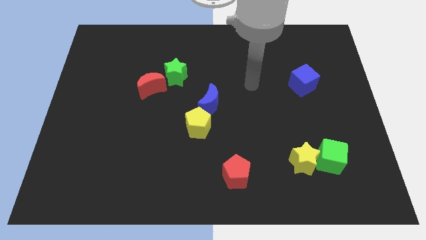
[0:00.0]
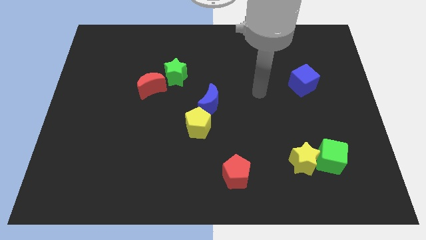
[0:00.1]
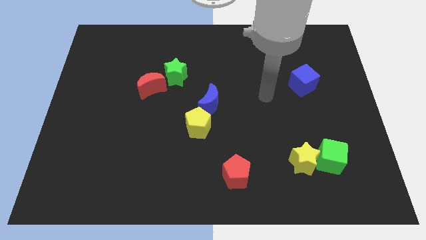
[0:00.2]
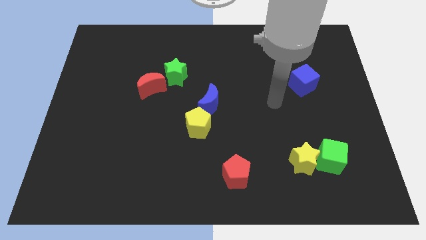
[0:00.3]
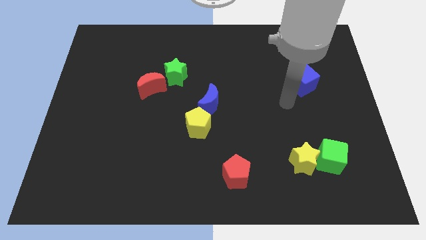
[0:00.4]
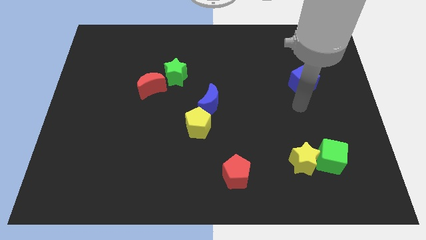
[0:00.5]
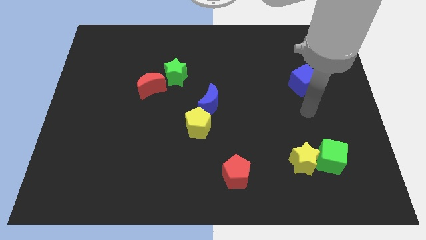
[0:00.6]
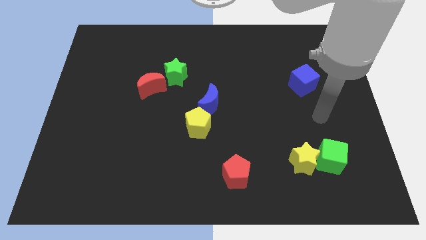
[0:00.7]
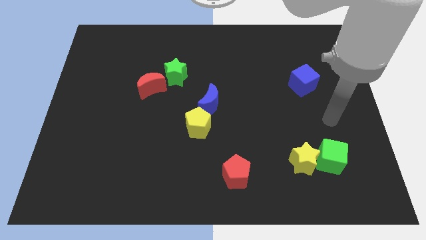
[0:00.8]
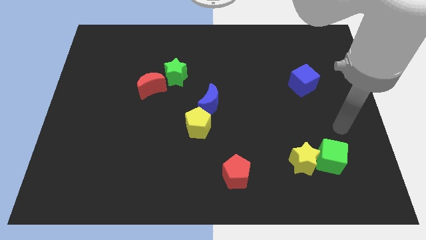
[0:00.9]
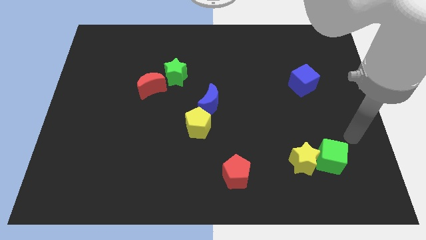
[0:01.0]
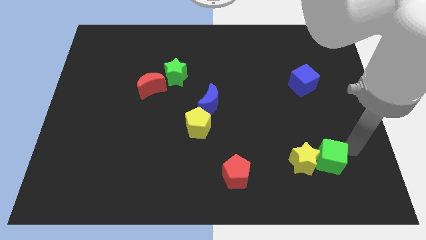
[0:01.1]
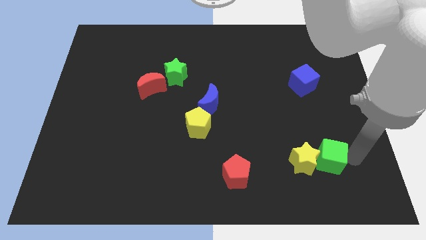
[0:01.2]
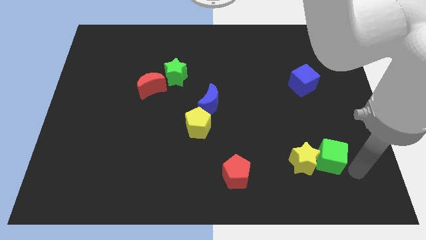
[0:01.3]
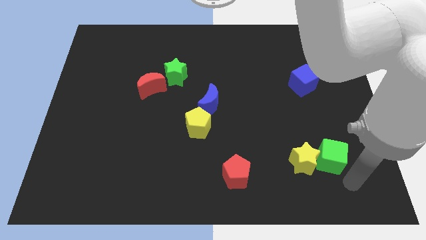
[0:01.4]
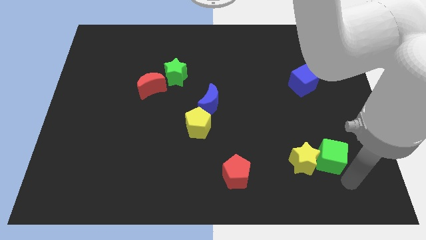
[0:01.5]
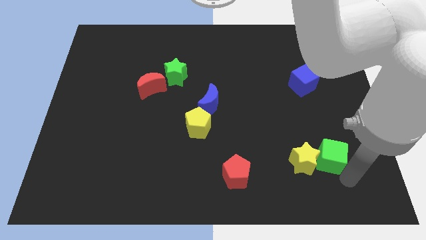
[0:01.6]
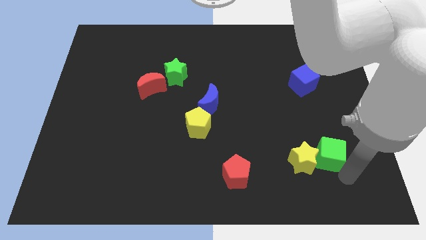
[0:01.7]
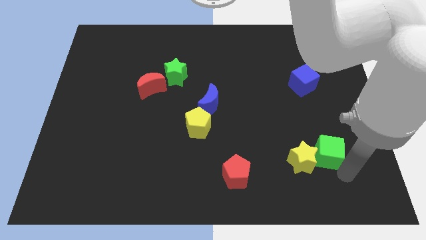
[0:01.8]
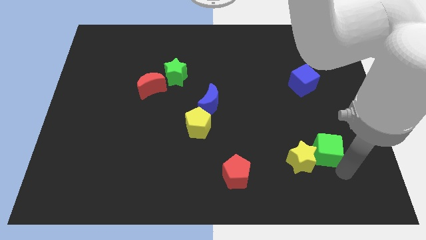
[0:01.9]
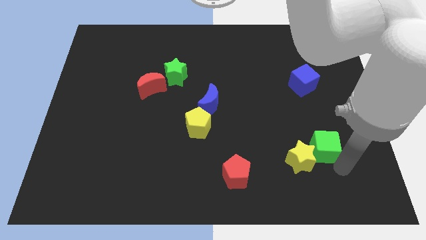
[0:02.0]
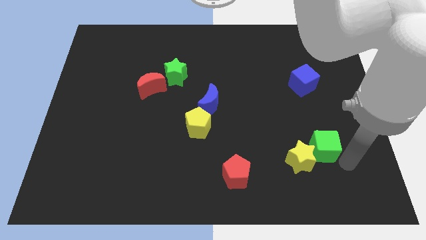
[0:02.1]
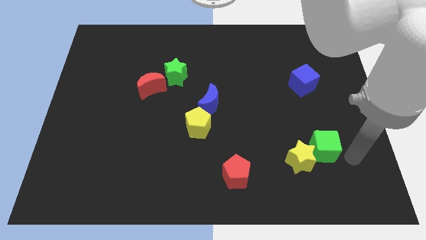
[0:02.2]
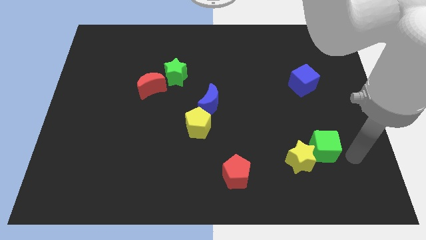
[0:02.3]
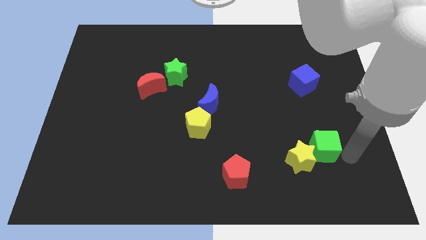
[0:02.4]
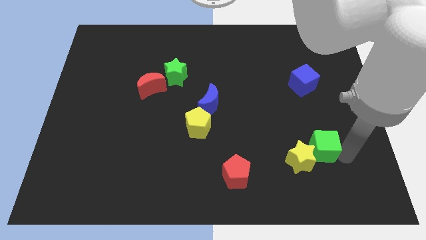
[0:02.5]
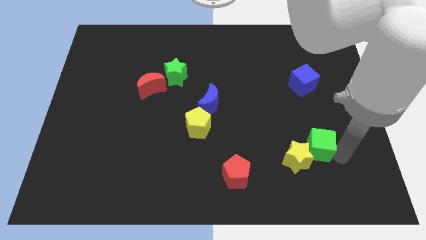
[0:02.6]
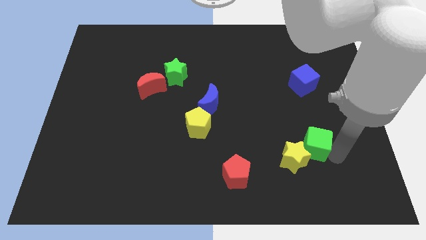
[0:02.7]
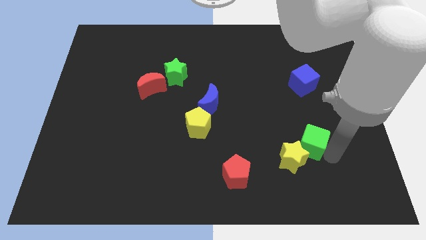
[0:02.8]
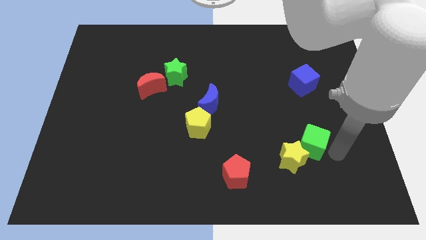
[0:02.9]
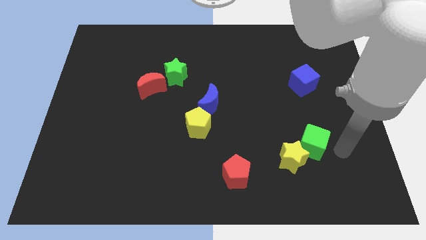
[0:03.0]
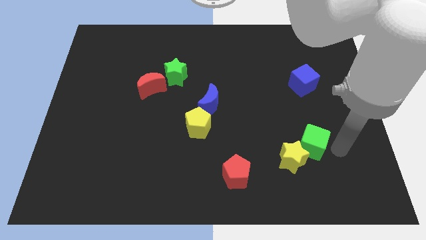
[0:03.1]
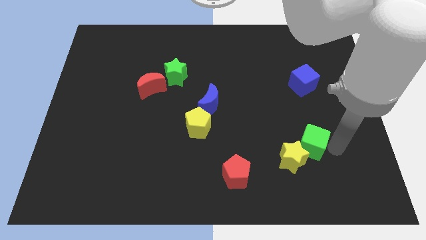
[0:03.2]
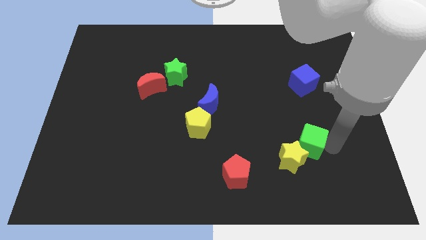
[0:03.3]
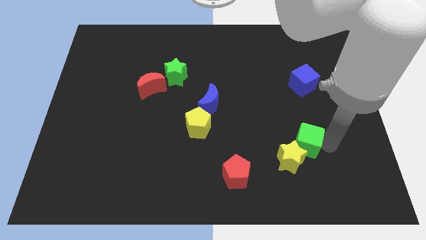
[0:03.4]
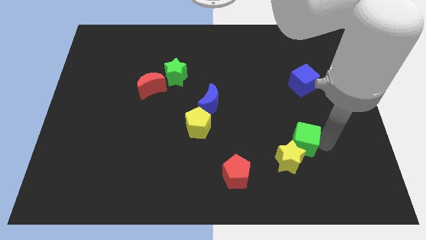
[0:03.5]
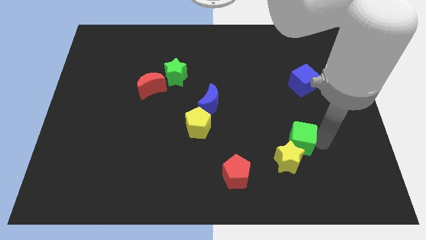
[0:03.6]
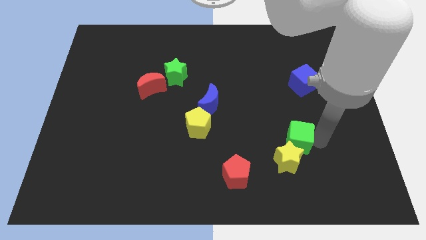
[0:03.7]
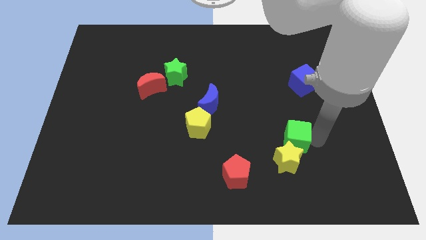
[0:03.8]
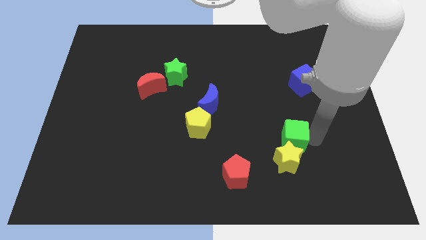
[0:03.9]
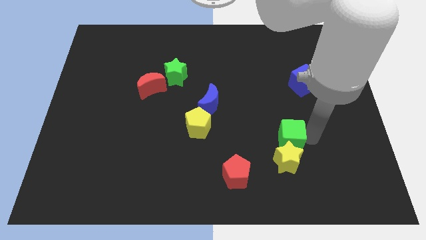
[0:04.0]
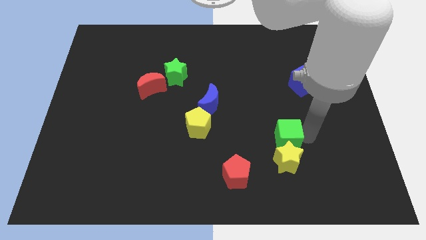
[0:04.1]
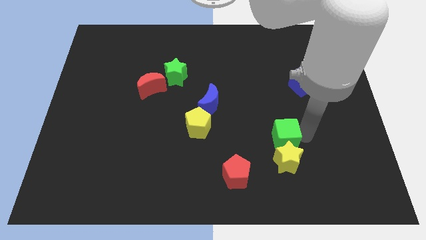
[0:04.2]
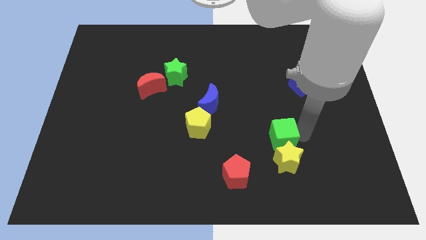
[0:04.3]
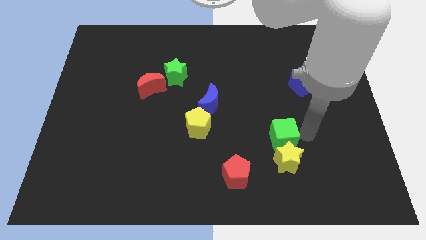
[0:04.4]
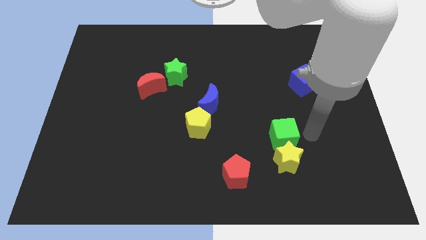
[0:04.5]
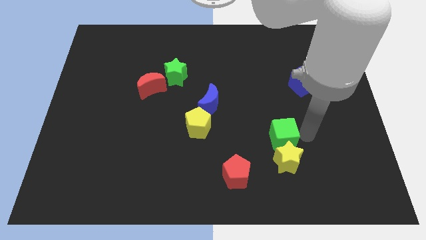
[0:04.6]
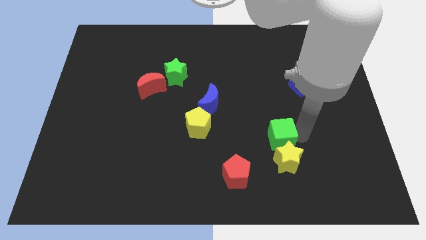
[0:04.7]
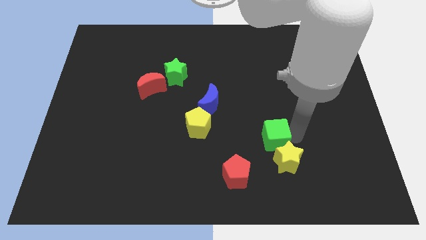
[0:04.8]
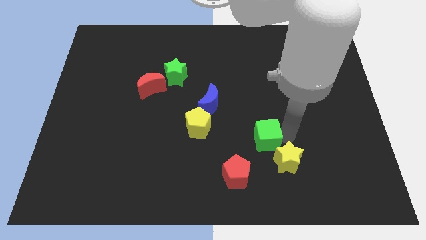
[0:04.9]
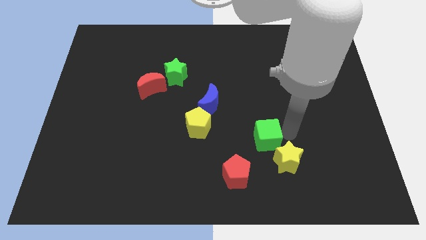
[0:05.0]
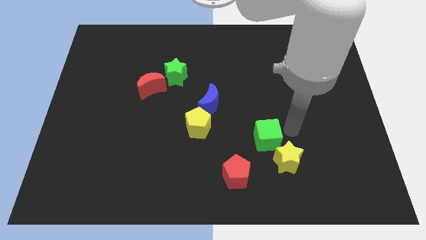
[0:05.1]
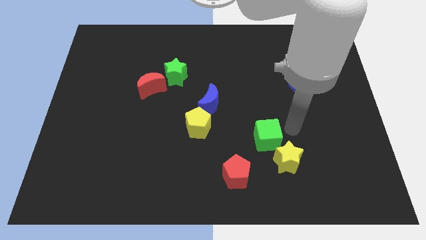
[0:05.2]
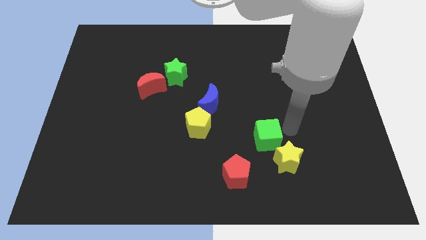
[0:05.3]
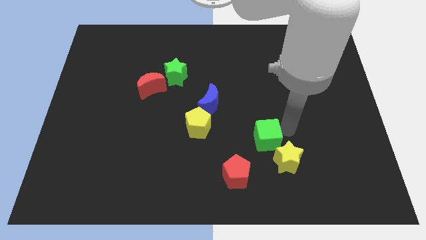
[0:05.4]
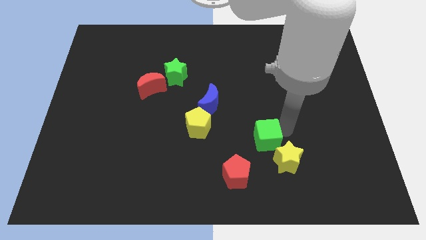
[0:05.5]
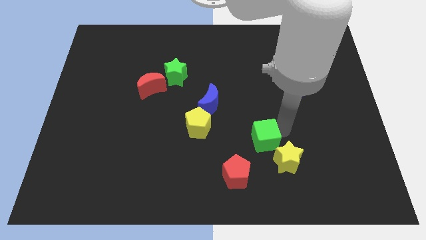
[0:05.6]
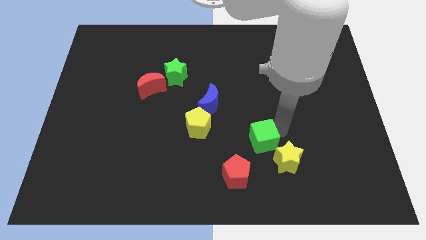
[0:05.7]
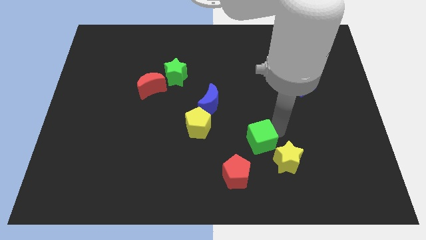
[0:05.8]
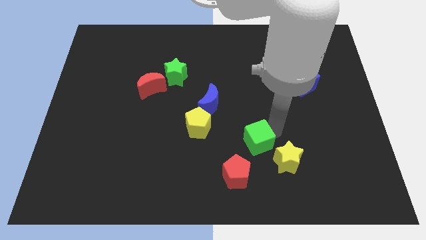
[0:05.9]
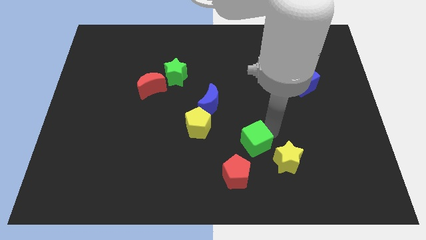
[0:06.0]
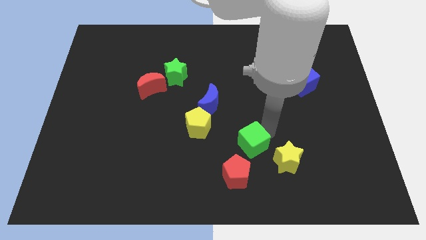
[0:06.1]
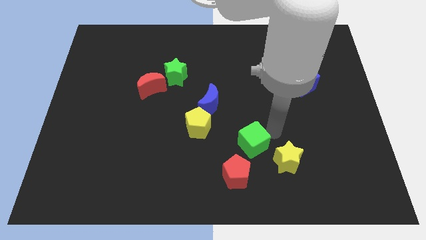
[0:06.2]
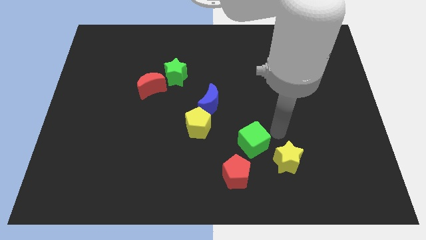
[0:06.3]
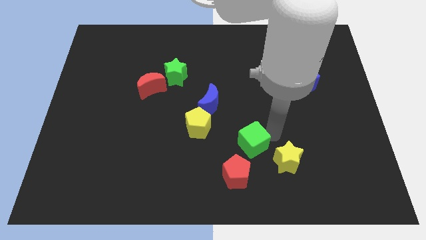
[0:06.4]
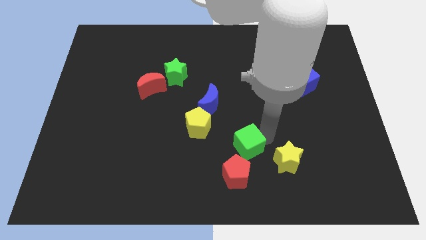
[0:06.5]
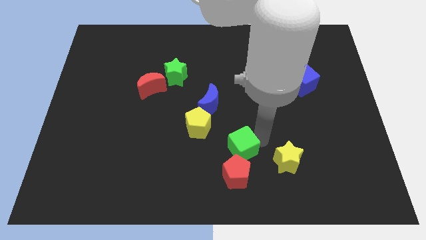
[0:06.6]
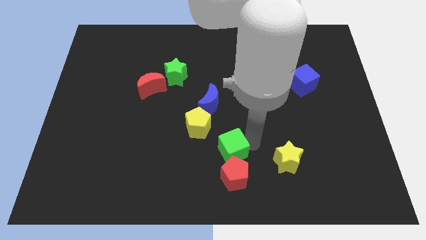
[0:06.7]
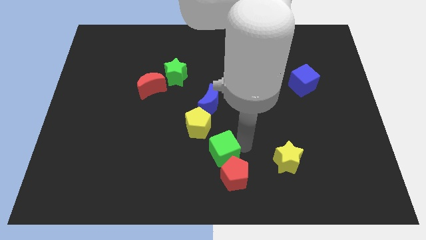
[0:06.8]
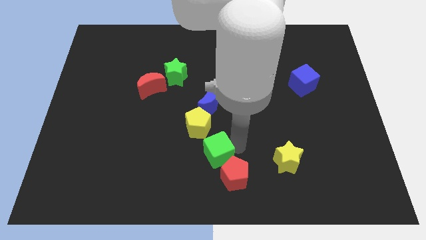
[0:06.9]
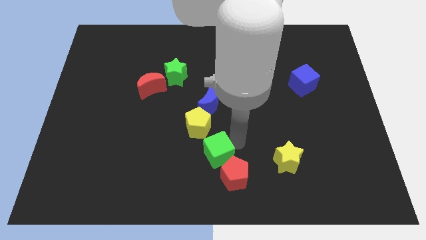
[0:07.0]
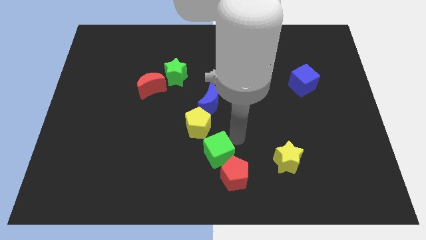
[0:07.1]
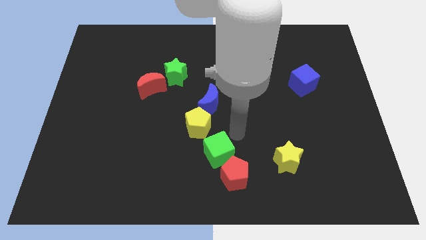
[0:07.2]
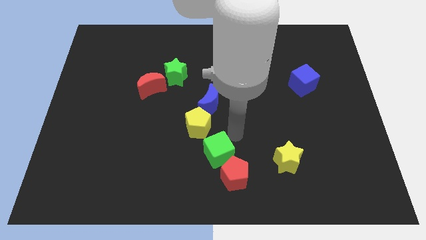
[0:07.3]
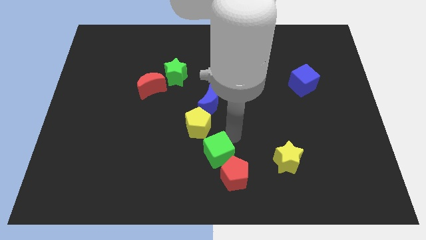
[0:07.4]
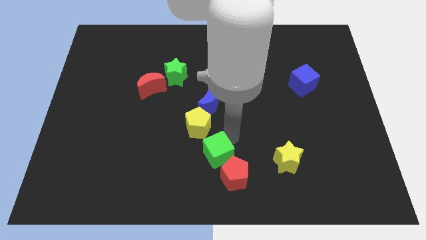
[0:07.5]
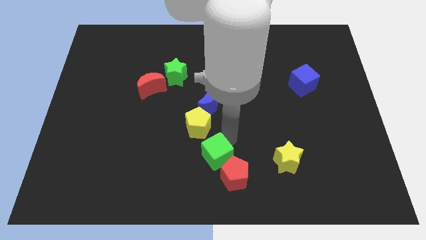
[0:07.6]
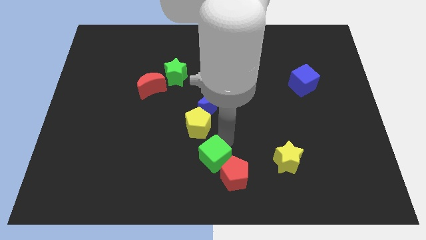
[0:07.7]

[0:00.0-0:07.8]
push the green cube to the left side of the red pentagon
